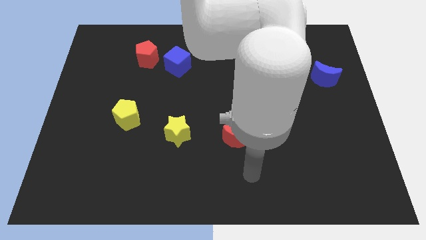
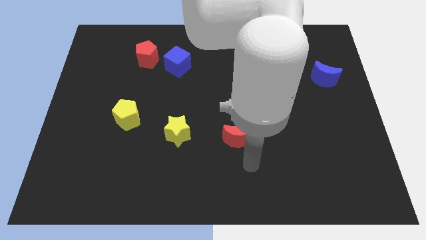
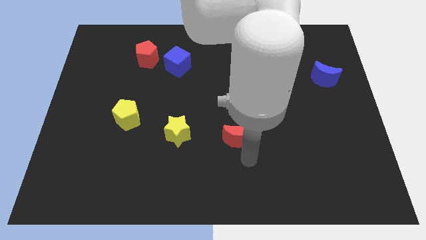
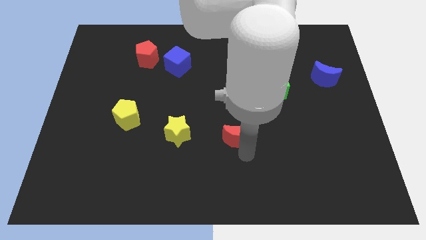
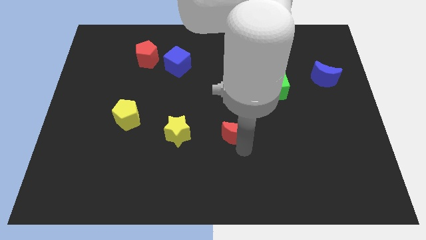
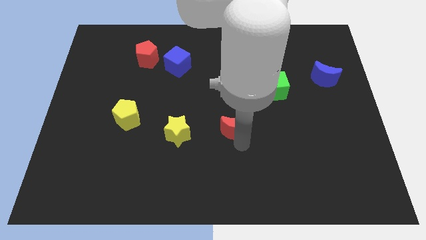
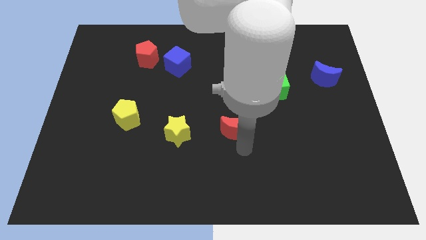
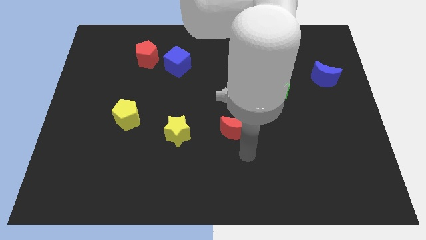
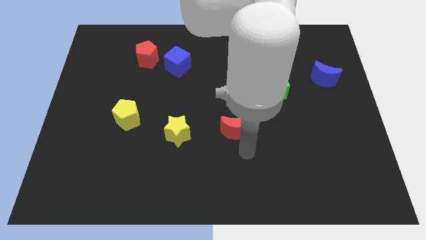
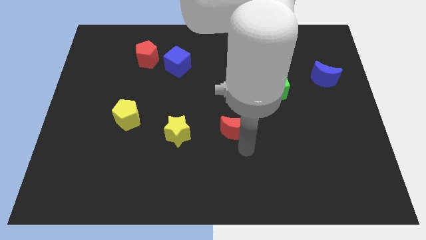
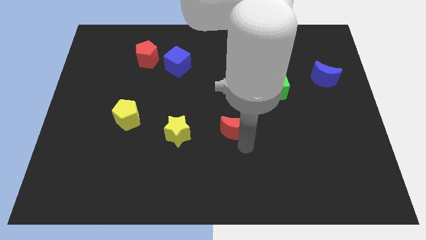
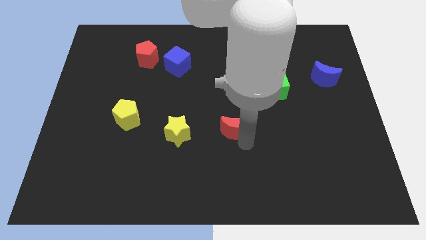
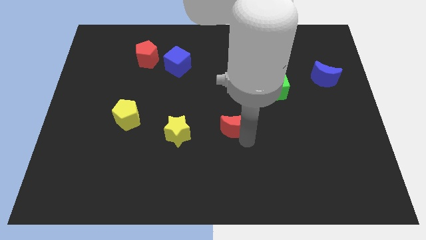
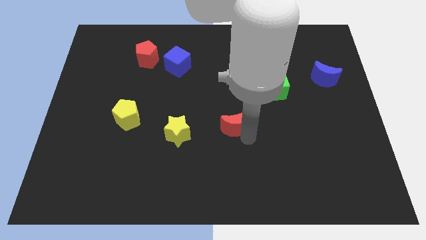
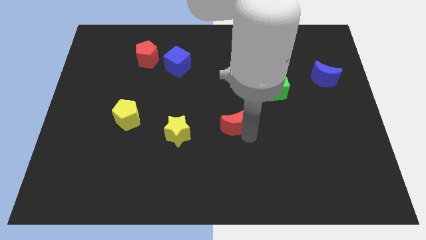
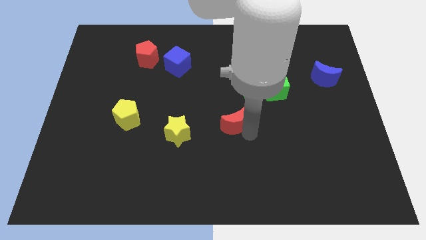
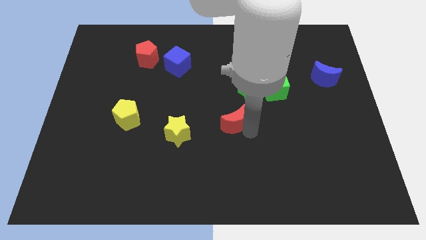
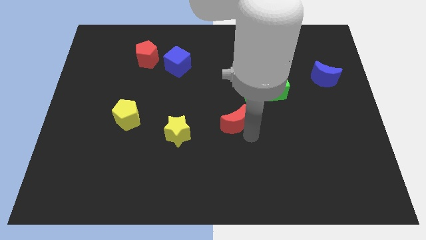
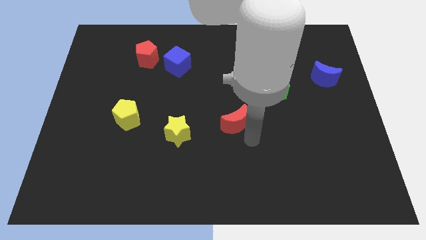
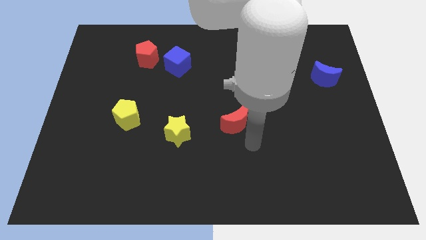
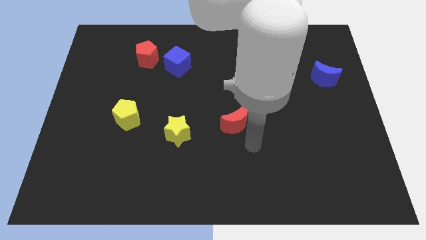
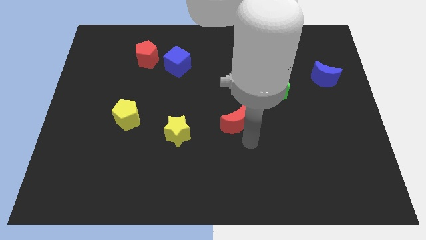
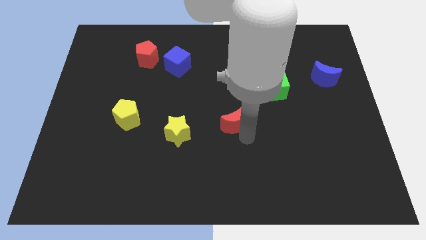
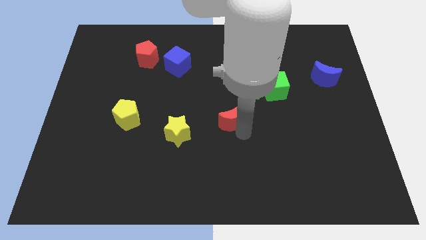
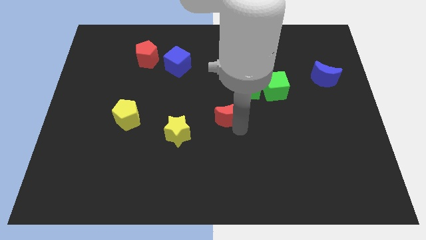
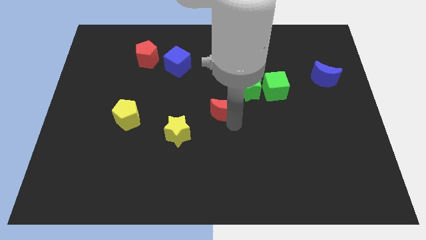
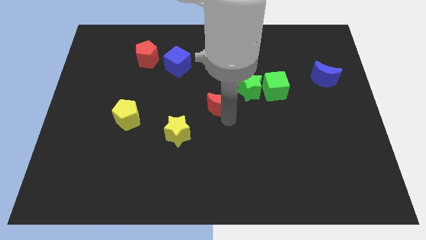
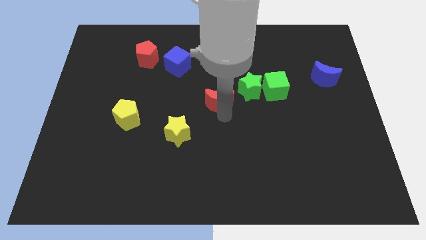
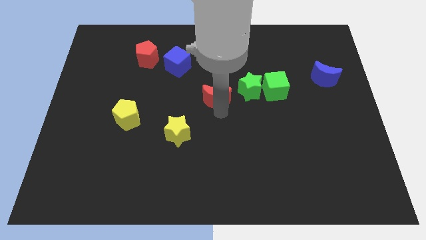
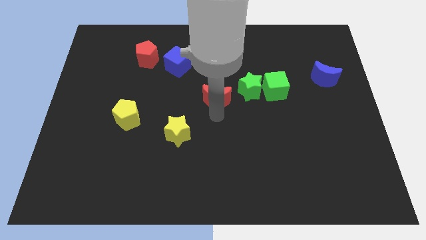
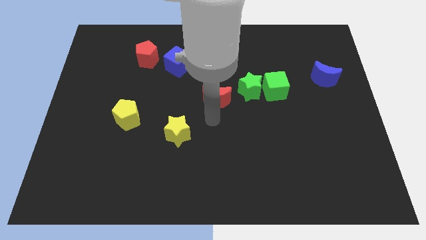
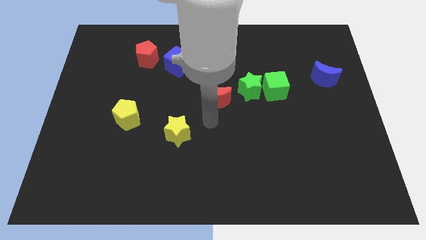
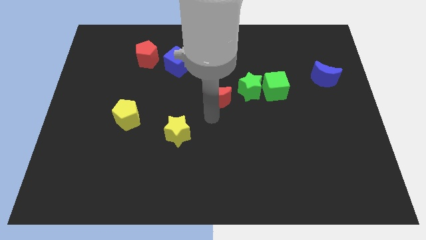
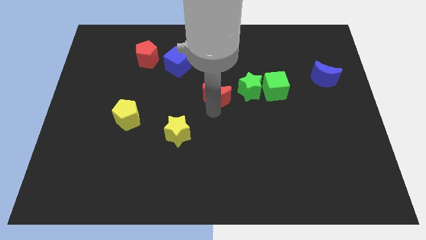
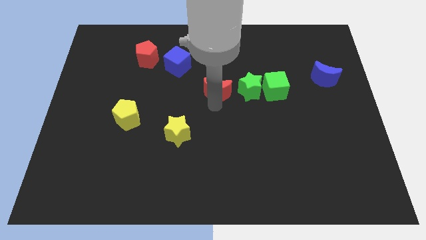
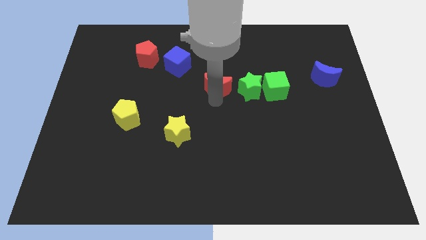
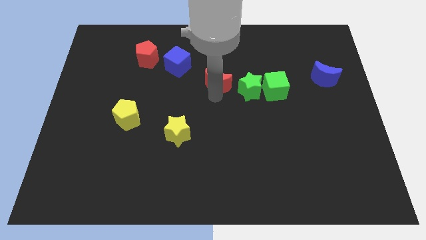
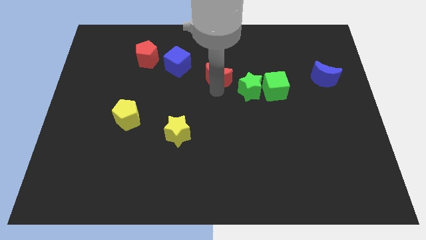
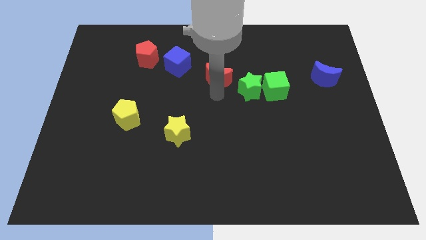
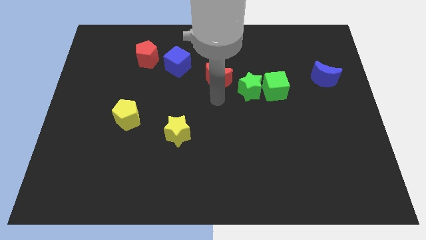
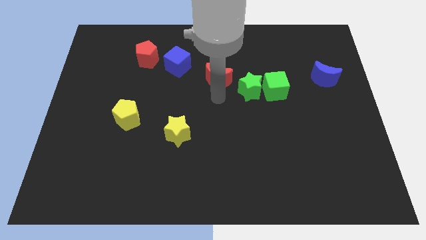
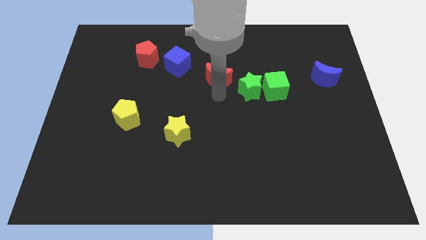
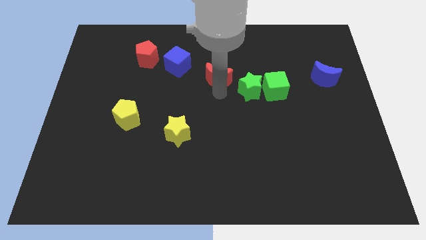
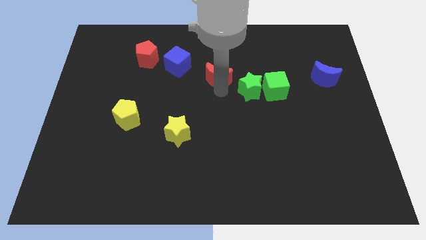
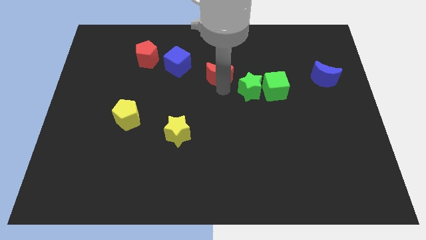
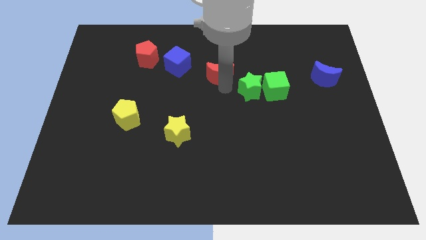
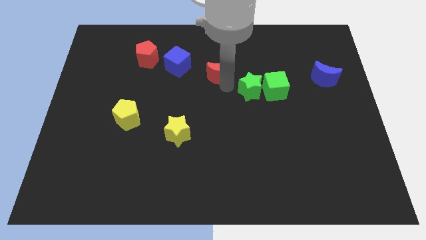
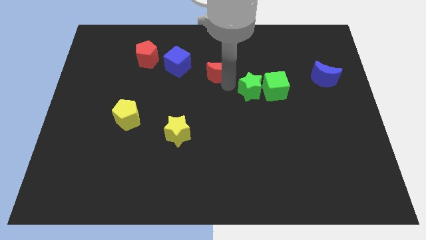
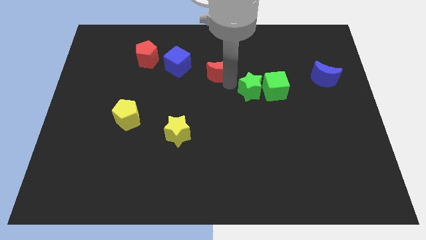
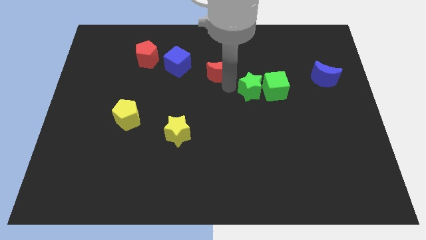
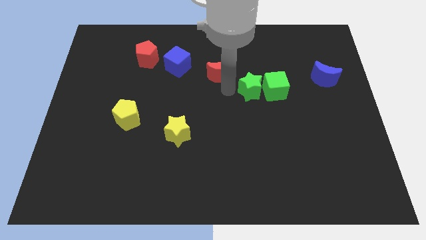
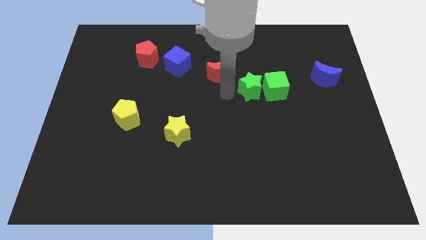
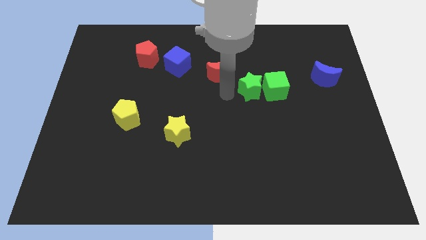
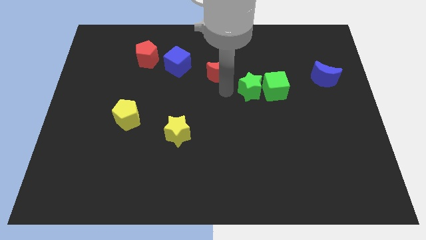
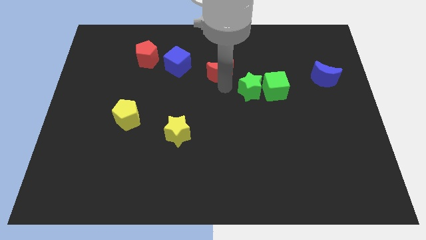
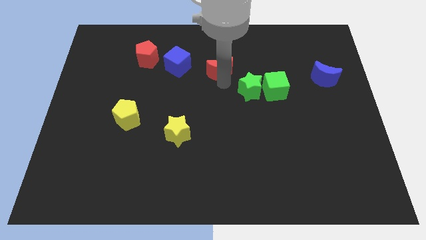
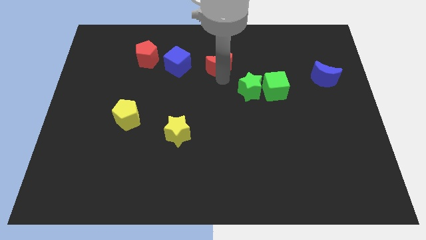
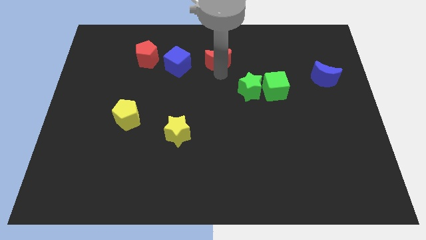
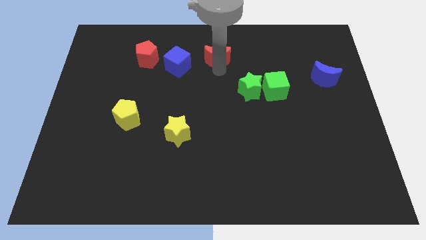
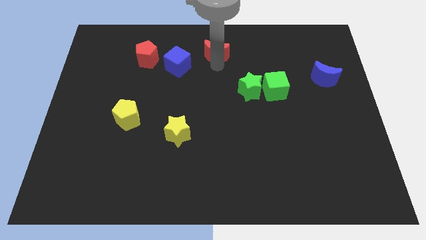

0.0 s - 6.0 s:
move the red moon to the top

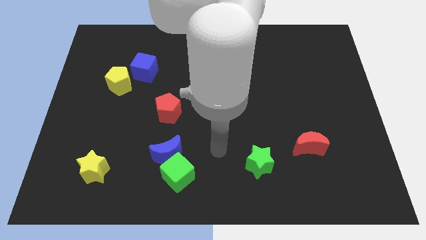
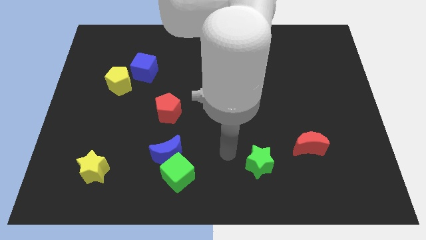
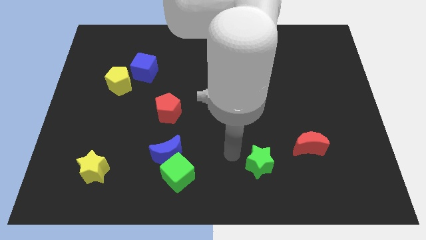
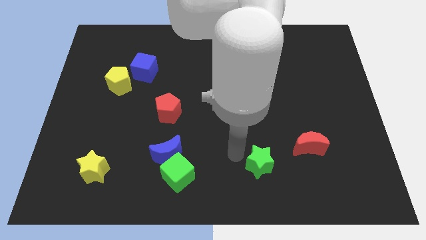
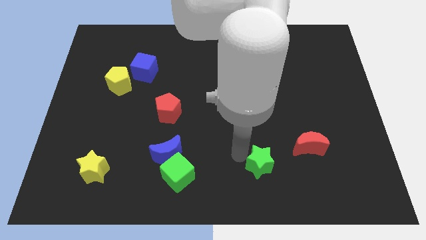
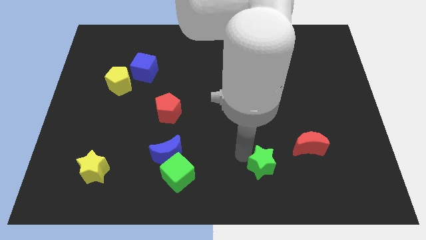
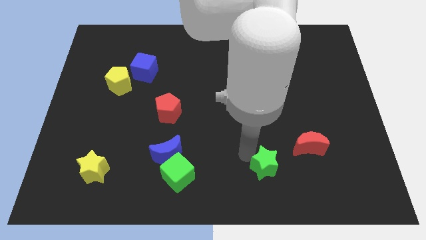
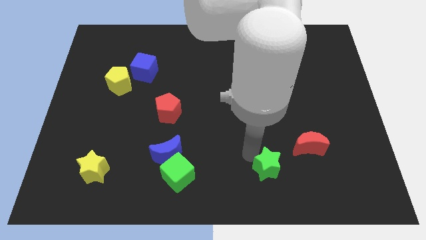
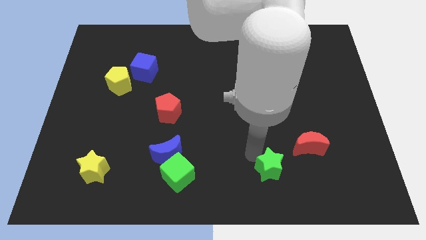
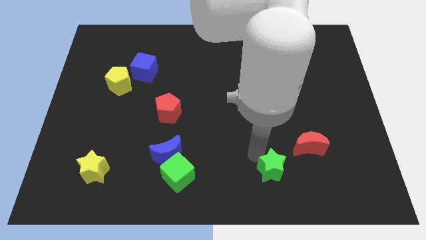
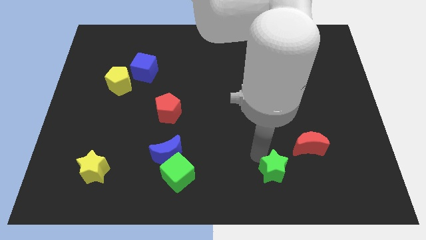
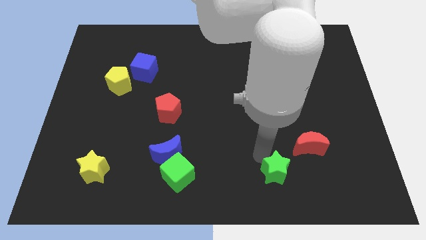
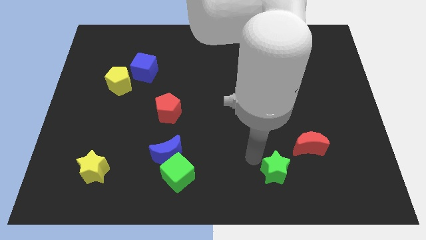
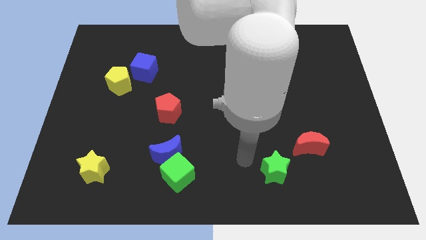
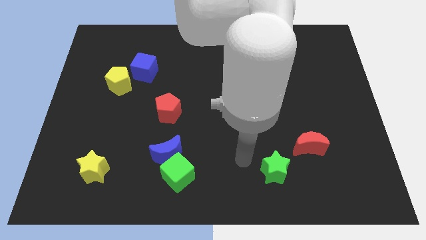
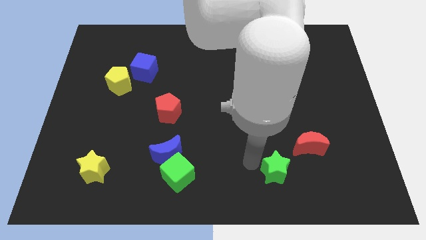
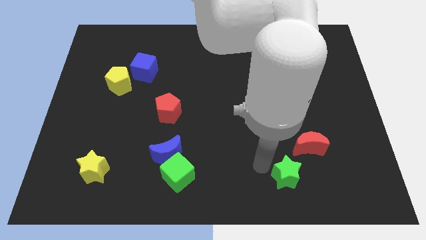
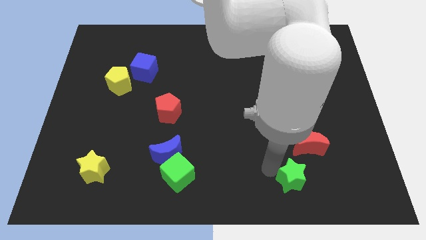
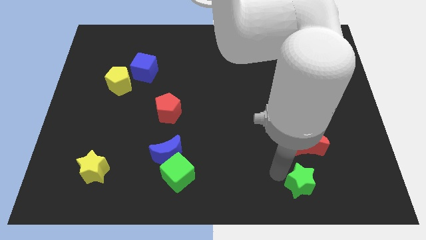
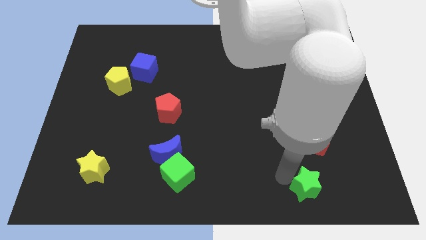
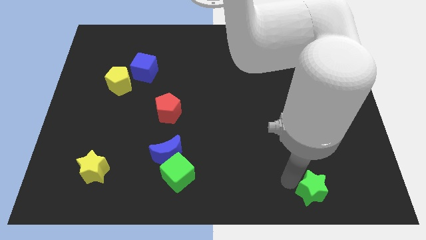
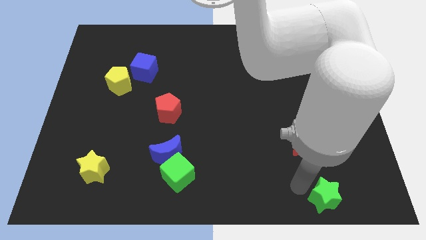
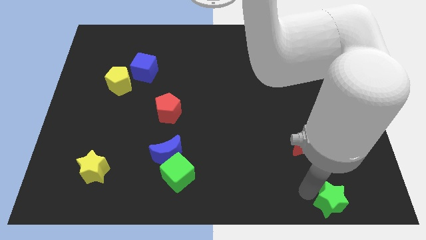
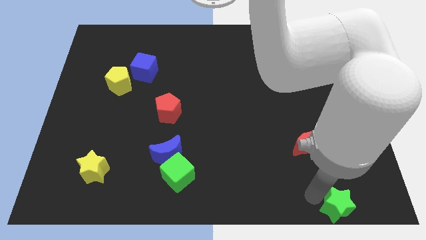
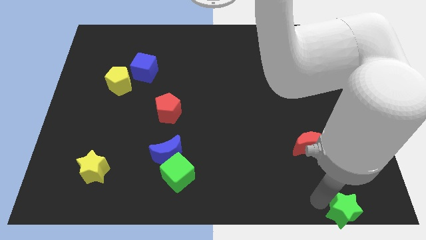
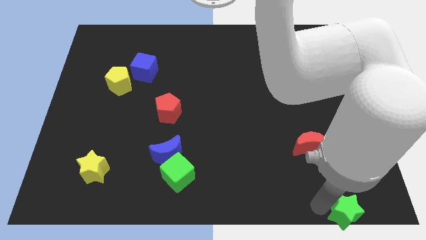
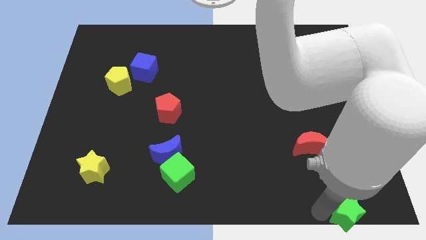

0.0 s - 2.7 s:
push the green star to the bottom right corner
